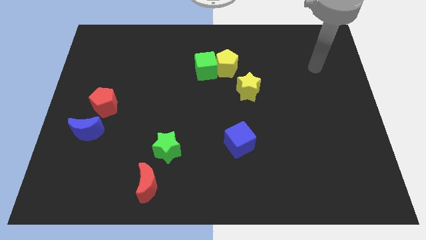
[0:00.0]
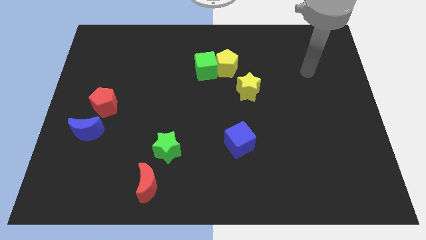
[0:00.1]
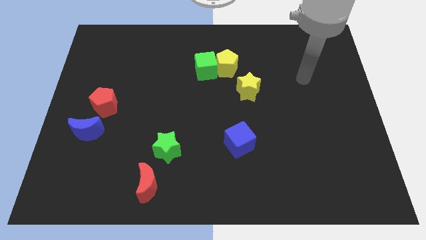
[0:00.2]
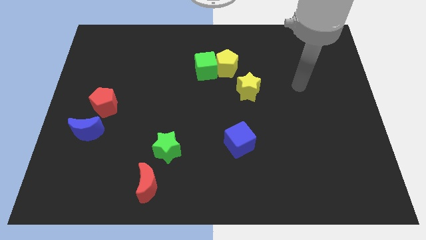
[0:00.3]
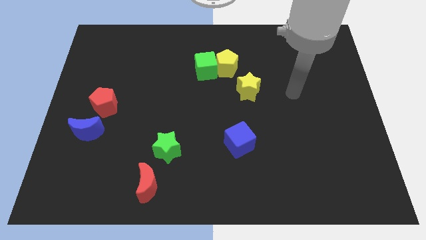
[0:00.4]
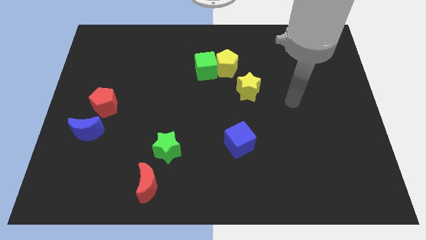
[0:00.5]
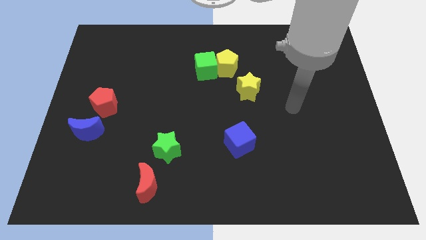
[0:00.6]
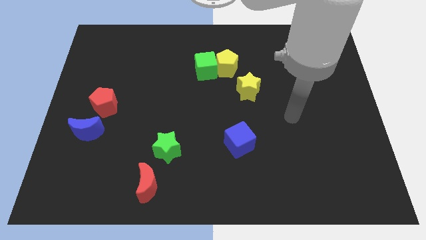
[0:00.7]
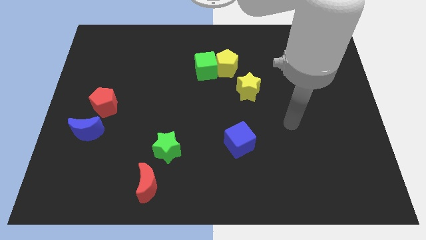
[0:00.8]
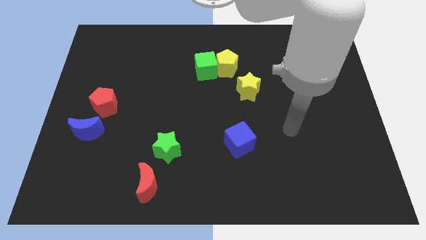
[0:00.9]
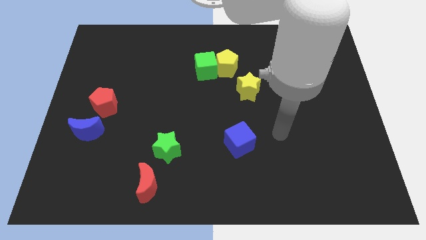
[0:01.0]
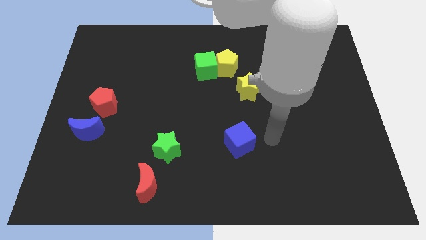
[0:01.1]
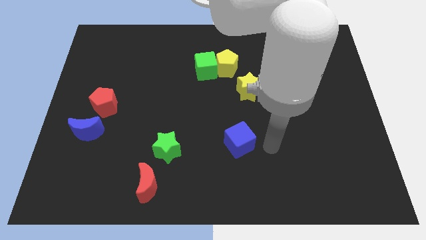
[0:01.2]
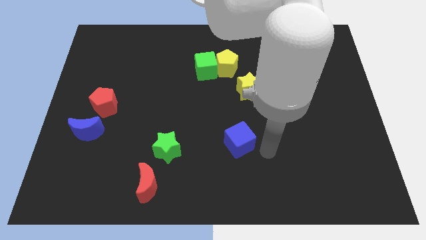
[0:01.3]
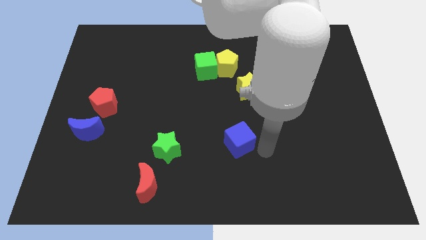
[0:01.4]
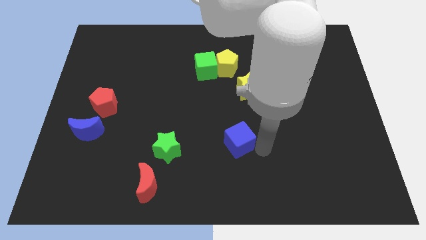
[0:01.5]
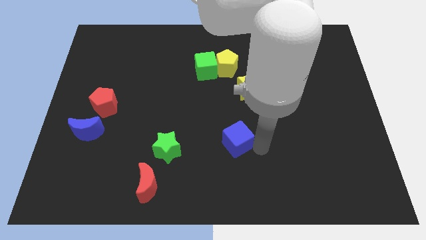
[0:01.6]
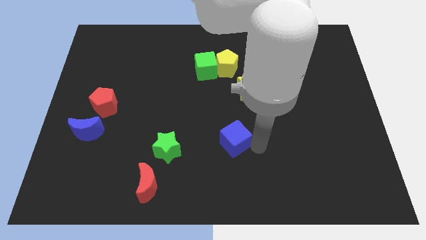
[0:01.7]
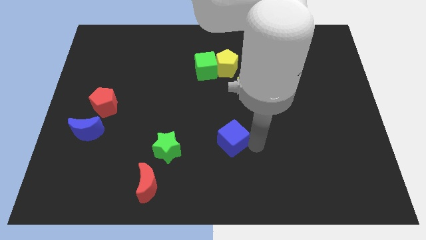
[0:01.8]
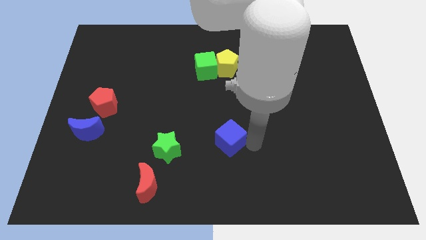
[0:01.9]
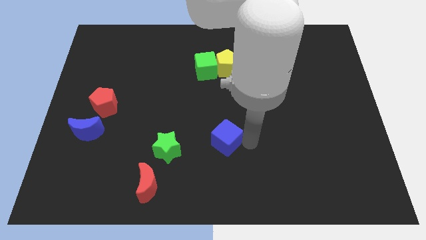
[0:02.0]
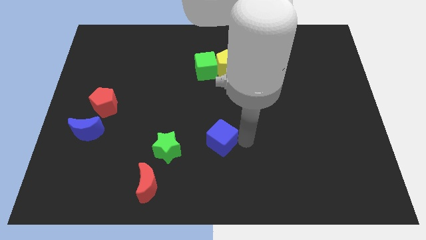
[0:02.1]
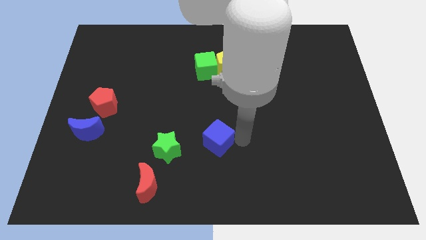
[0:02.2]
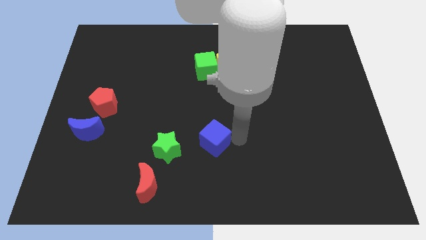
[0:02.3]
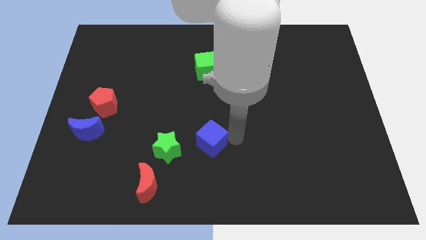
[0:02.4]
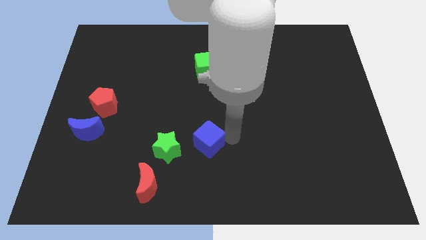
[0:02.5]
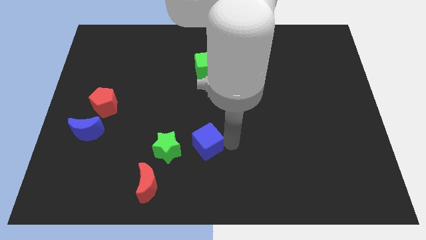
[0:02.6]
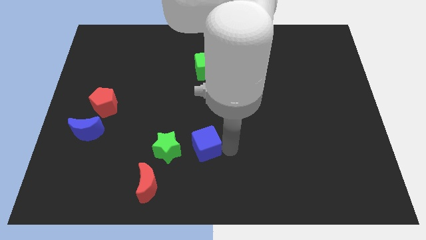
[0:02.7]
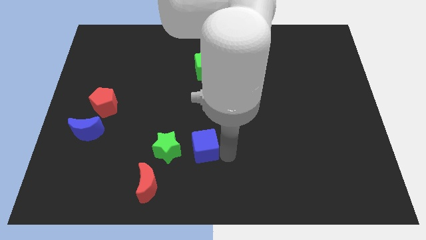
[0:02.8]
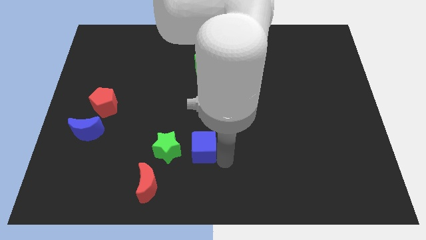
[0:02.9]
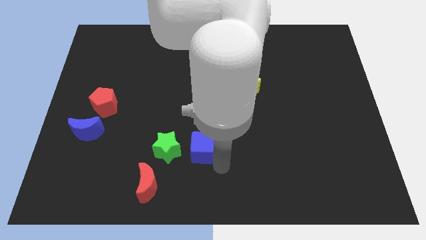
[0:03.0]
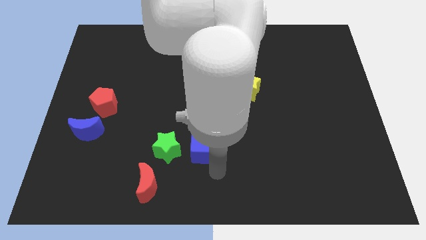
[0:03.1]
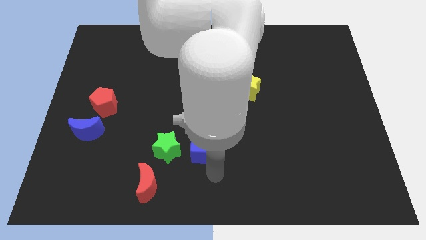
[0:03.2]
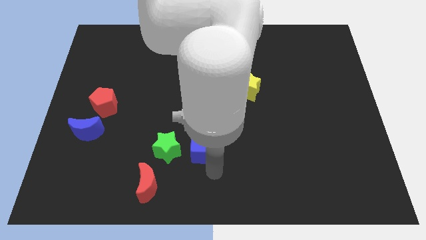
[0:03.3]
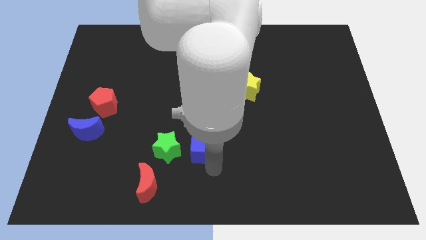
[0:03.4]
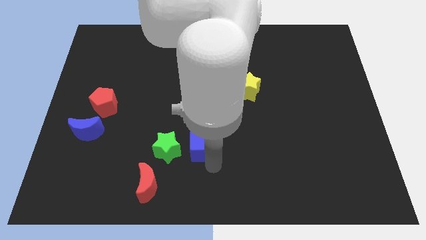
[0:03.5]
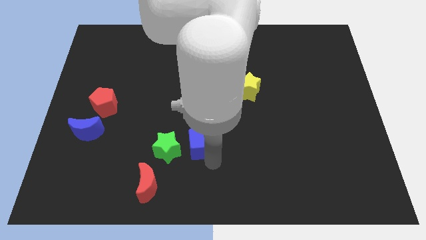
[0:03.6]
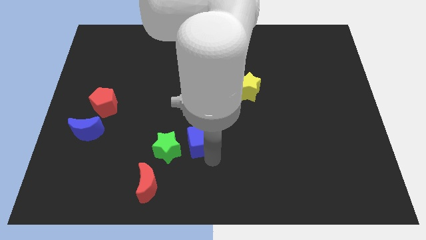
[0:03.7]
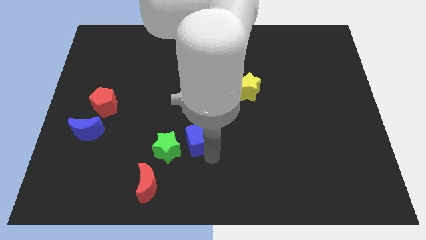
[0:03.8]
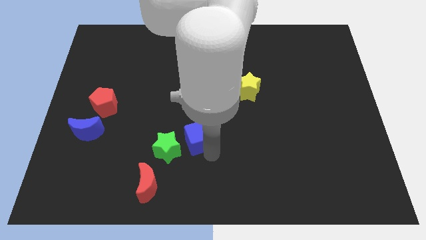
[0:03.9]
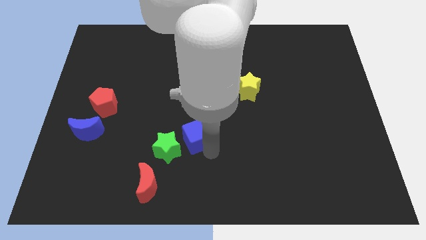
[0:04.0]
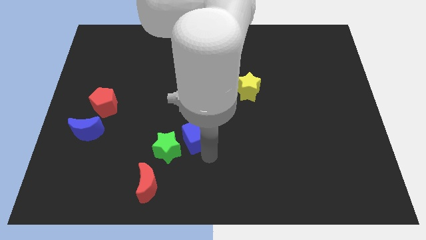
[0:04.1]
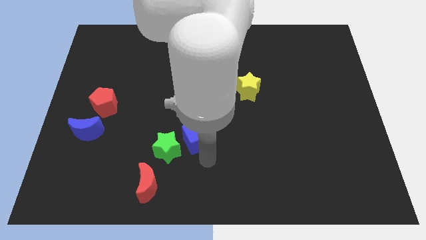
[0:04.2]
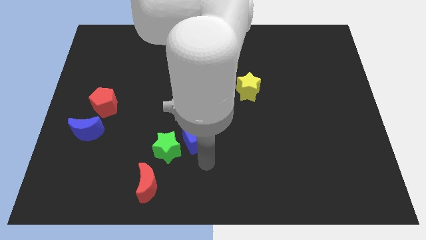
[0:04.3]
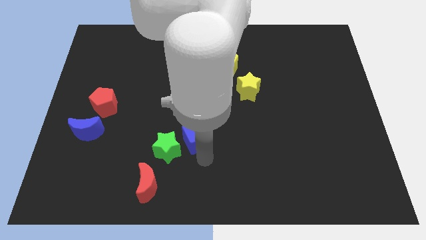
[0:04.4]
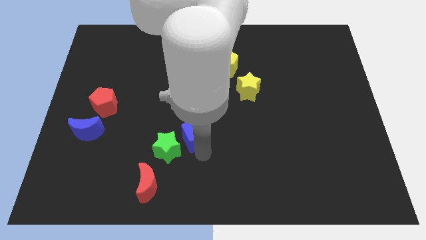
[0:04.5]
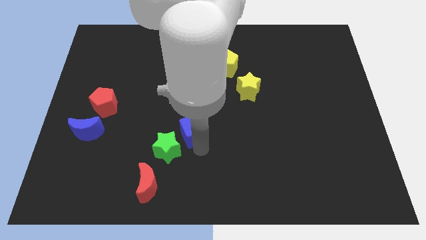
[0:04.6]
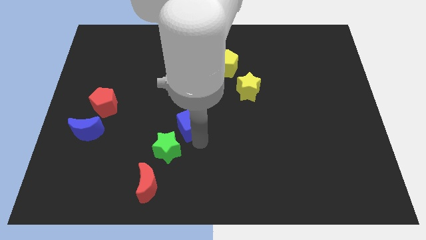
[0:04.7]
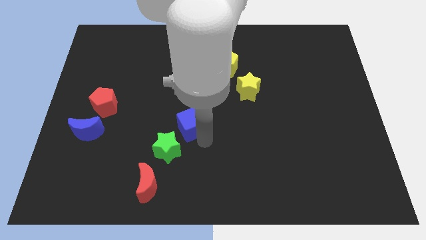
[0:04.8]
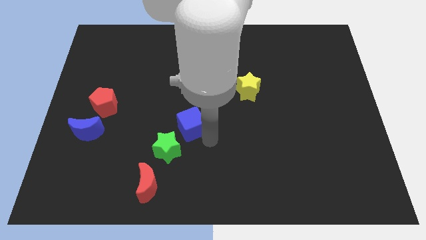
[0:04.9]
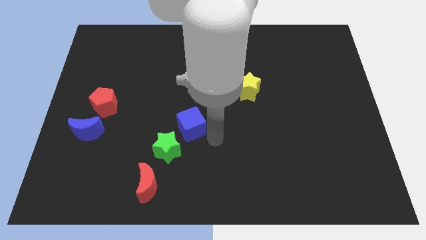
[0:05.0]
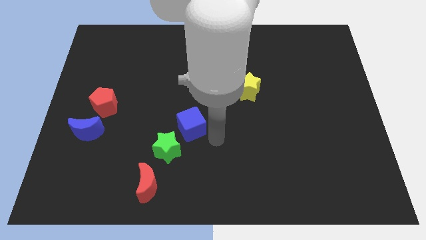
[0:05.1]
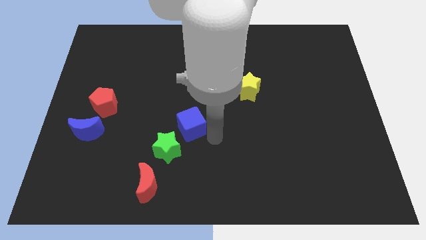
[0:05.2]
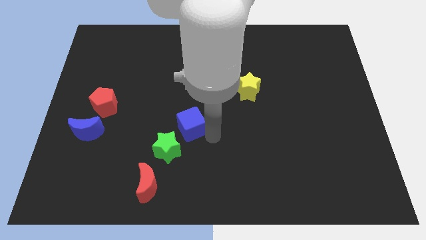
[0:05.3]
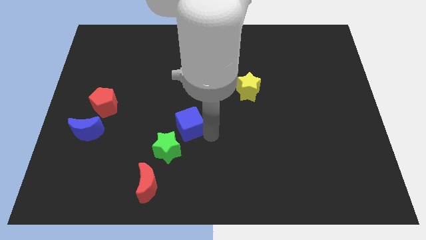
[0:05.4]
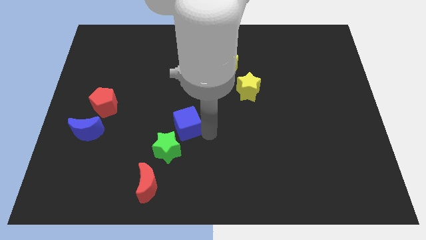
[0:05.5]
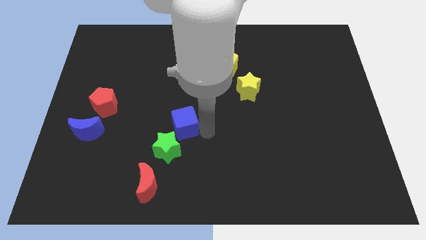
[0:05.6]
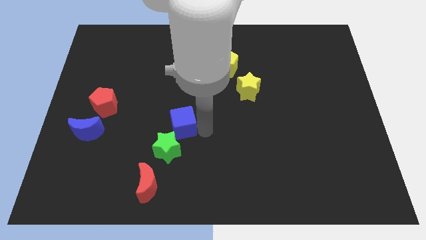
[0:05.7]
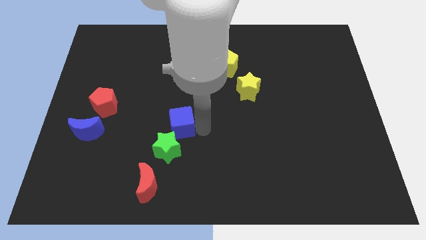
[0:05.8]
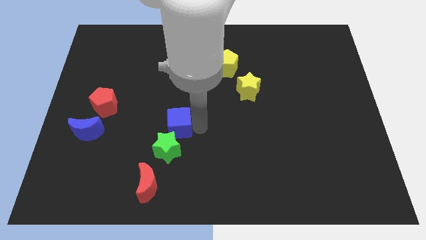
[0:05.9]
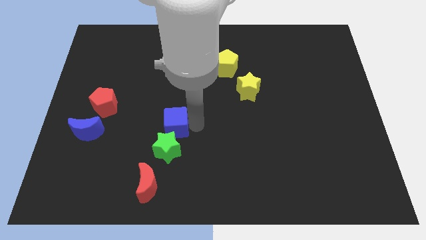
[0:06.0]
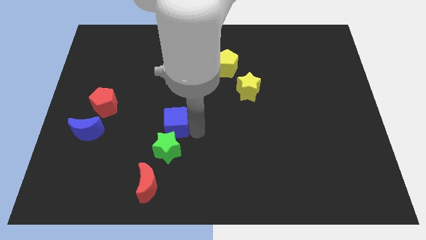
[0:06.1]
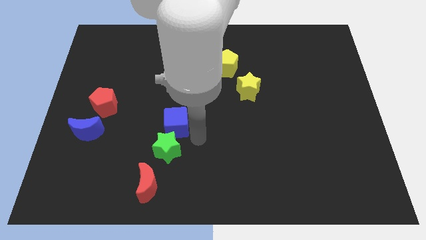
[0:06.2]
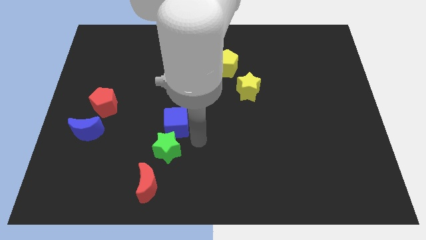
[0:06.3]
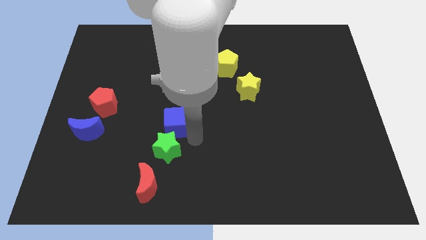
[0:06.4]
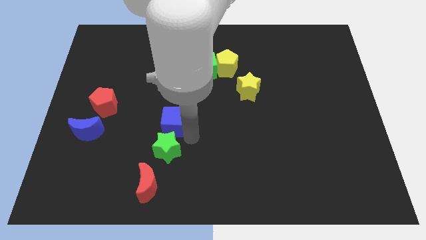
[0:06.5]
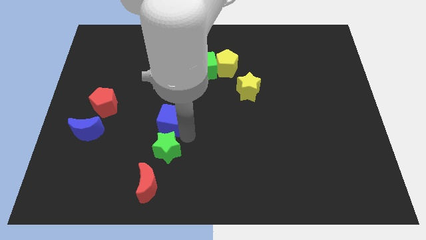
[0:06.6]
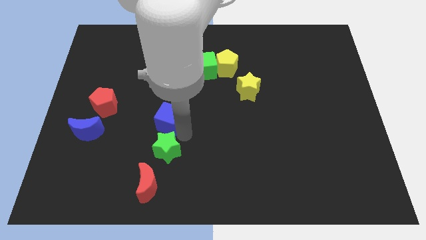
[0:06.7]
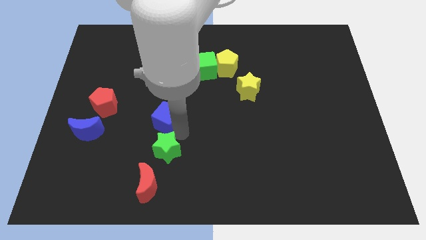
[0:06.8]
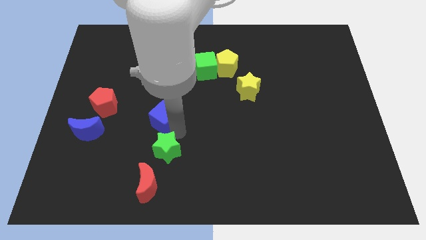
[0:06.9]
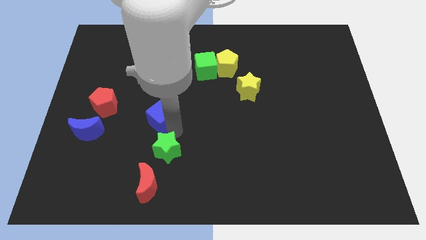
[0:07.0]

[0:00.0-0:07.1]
move the blue cube to the right side of the red pentagon
